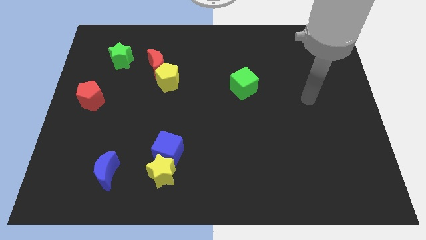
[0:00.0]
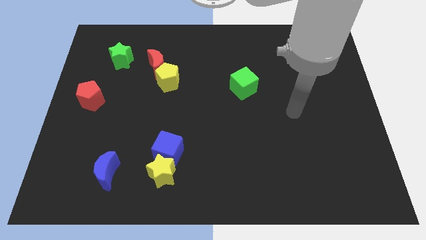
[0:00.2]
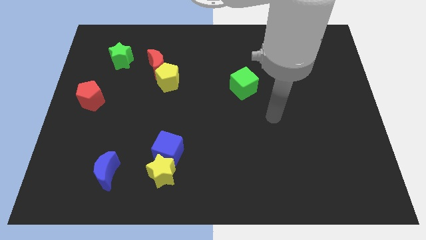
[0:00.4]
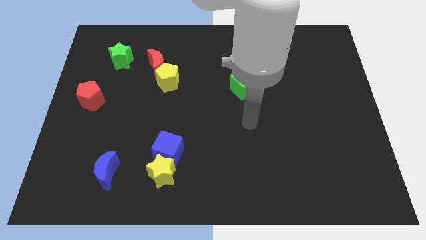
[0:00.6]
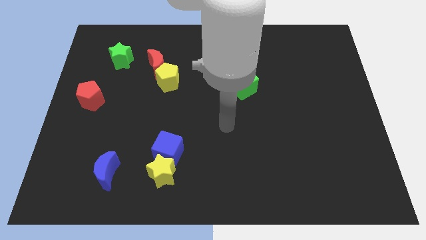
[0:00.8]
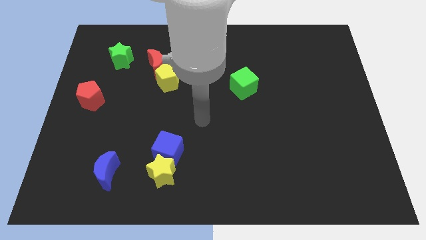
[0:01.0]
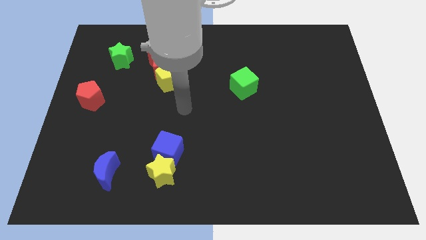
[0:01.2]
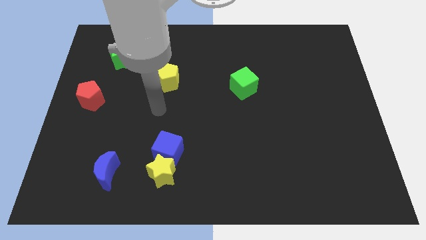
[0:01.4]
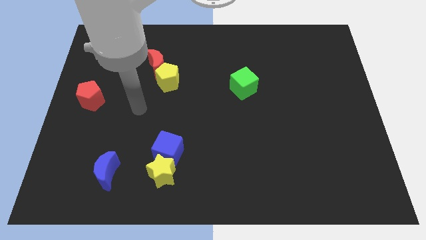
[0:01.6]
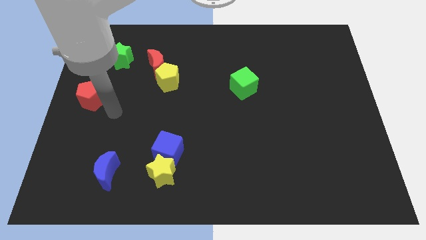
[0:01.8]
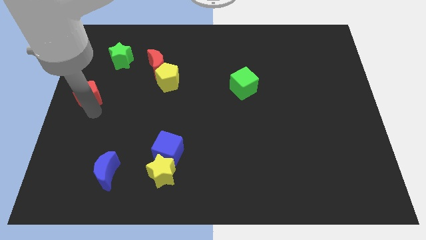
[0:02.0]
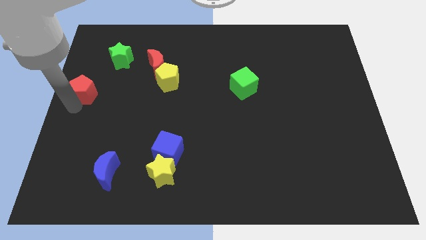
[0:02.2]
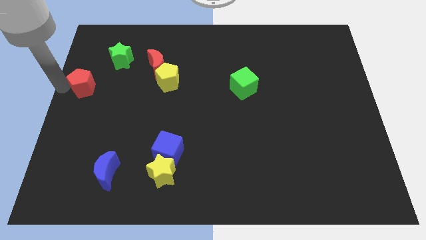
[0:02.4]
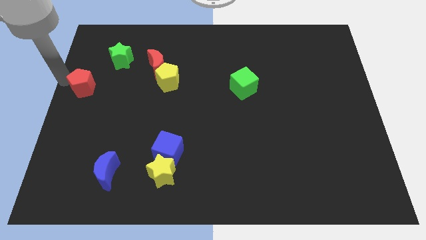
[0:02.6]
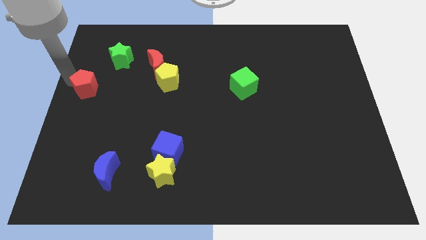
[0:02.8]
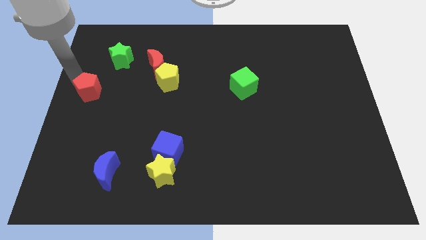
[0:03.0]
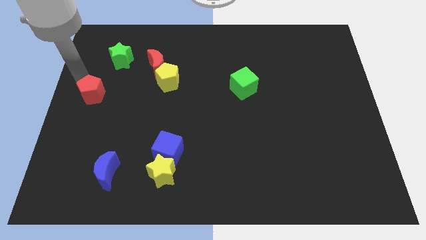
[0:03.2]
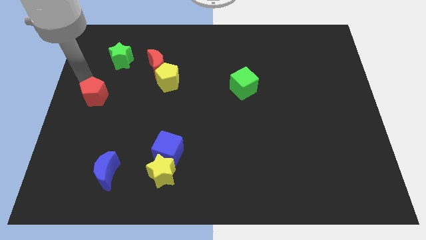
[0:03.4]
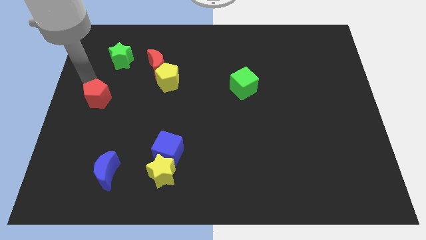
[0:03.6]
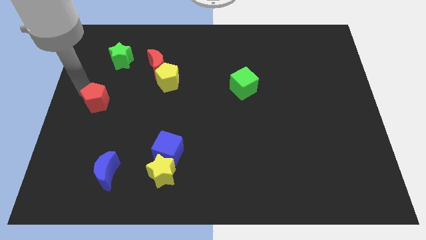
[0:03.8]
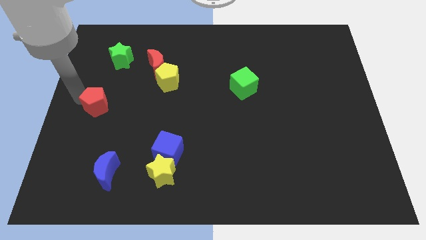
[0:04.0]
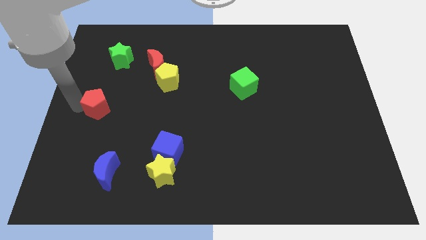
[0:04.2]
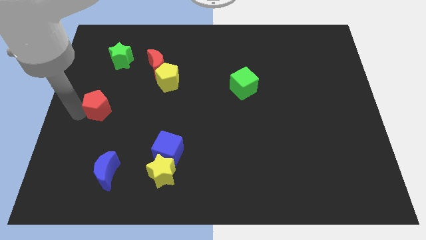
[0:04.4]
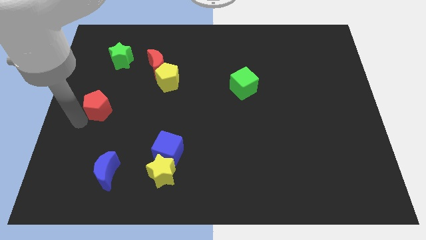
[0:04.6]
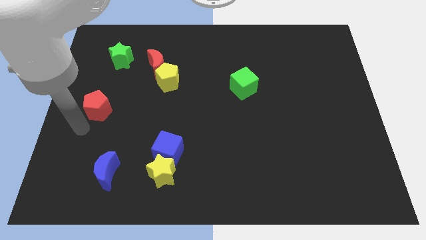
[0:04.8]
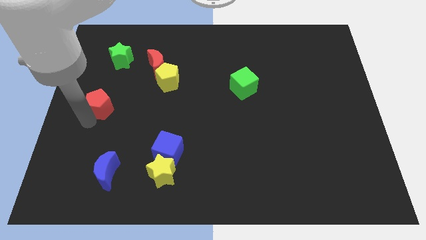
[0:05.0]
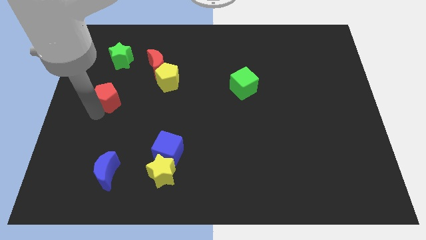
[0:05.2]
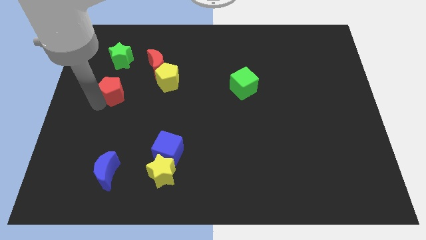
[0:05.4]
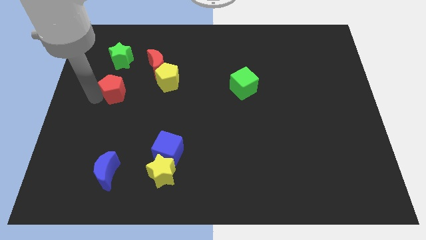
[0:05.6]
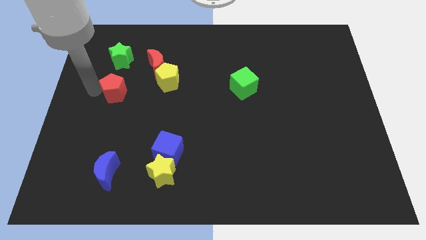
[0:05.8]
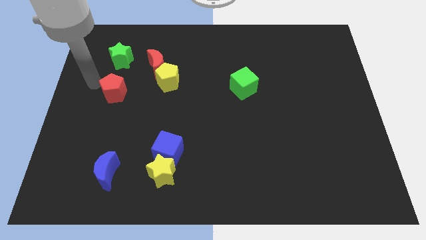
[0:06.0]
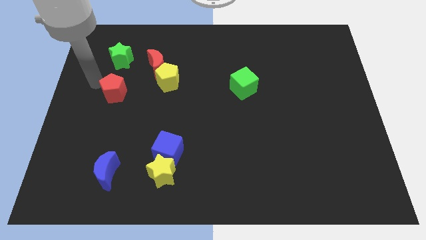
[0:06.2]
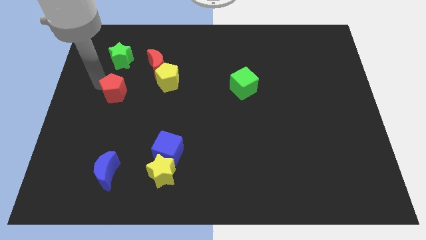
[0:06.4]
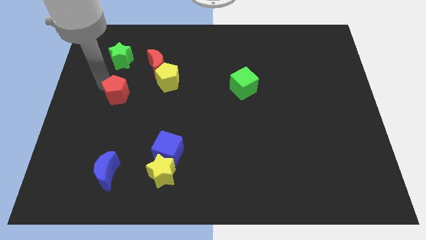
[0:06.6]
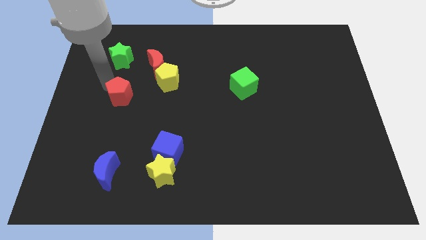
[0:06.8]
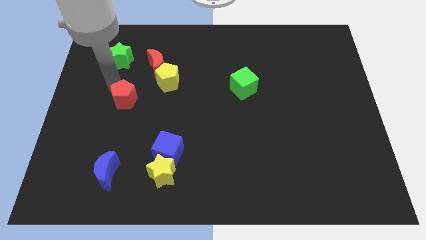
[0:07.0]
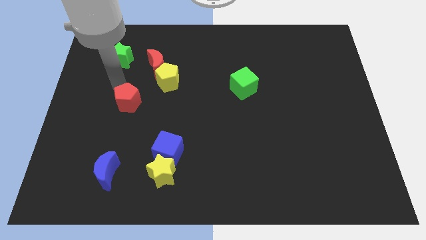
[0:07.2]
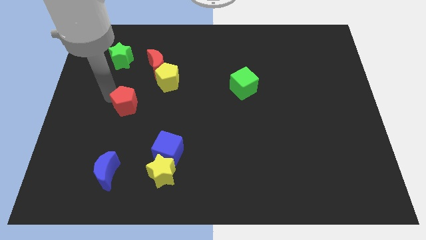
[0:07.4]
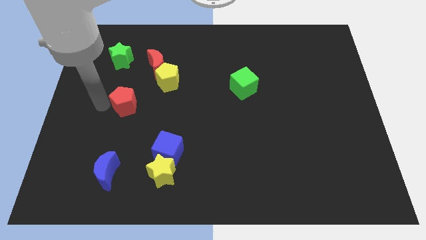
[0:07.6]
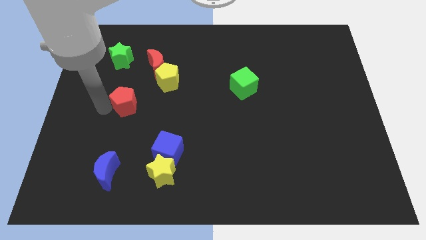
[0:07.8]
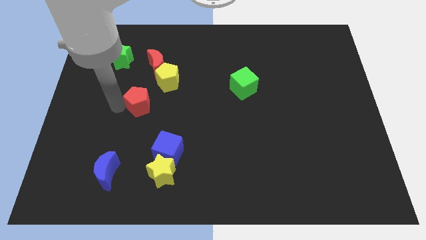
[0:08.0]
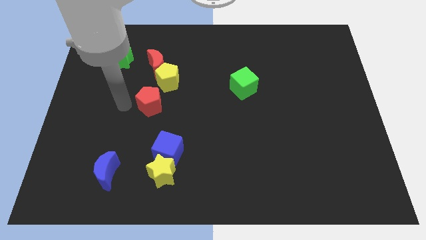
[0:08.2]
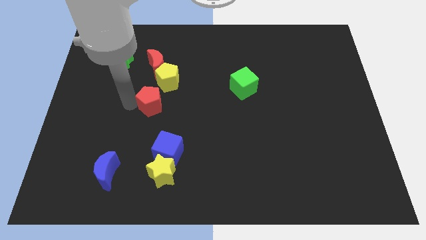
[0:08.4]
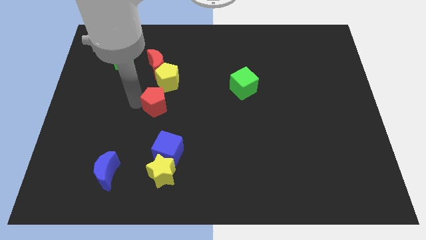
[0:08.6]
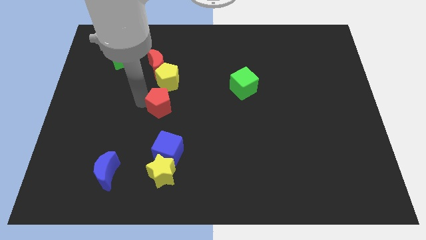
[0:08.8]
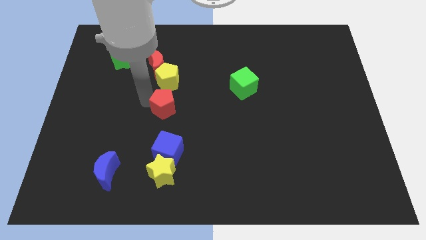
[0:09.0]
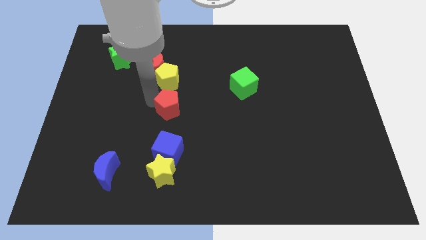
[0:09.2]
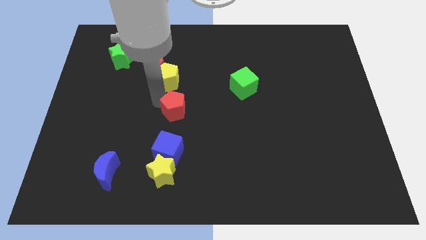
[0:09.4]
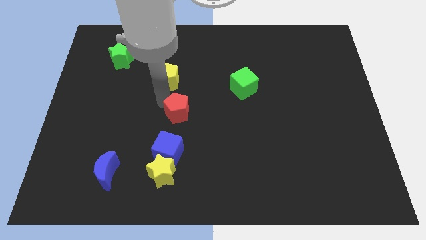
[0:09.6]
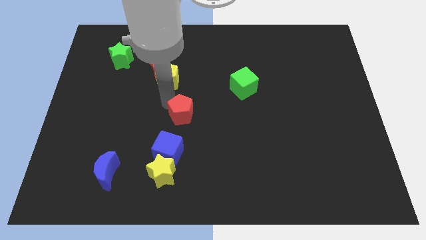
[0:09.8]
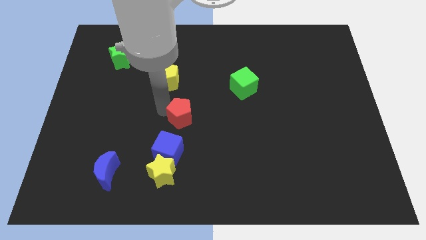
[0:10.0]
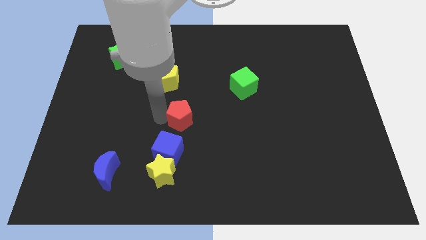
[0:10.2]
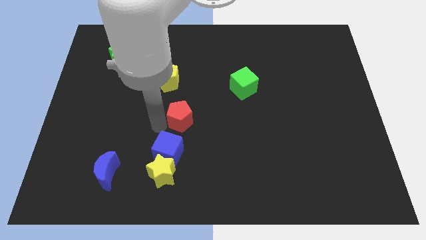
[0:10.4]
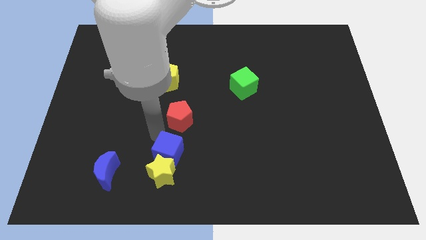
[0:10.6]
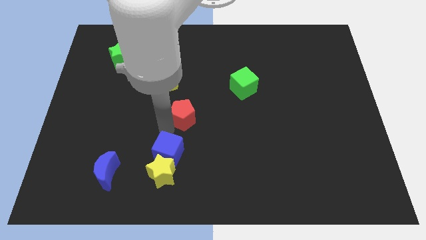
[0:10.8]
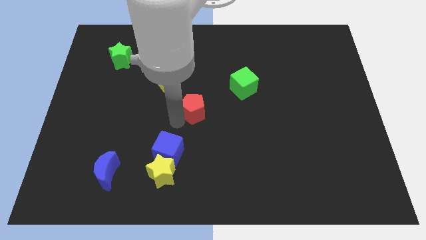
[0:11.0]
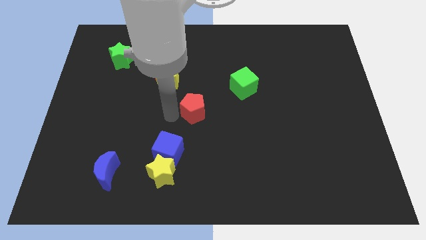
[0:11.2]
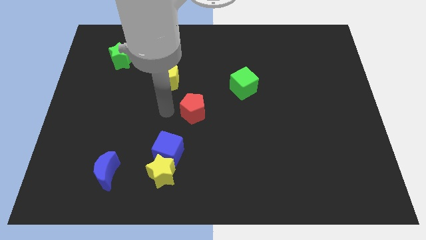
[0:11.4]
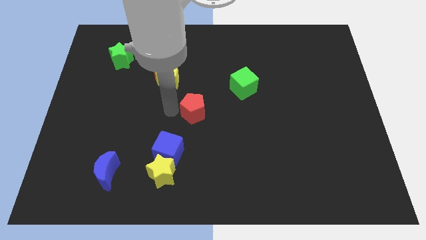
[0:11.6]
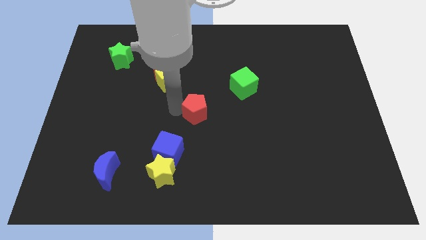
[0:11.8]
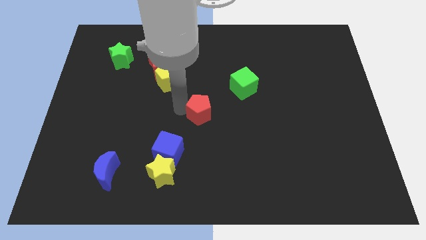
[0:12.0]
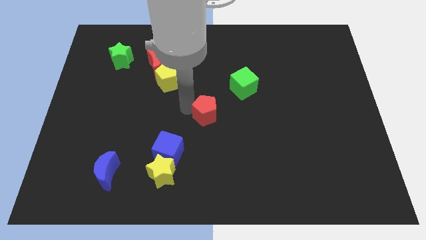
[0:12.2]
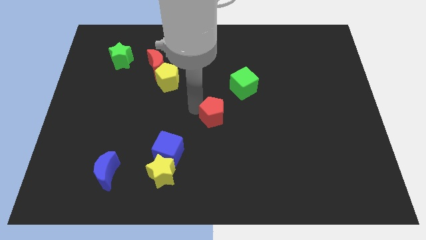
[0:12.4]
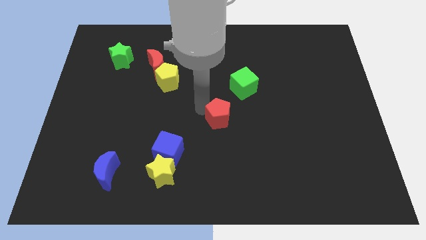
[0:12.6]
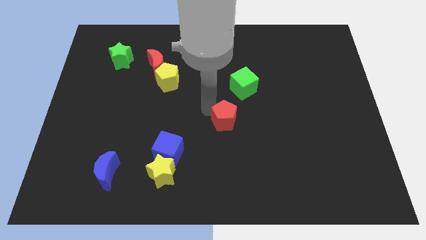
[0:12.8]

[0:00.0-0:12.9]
put the red pentagon to the bottom of the green cube

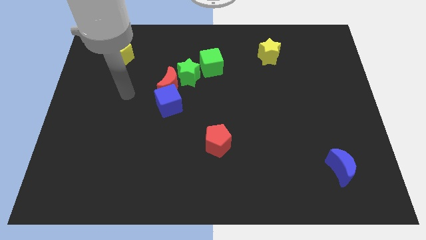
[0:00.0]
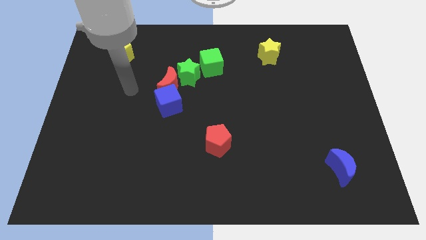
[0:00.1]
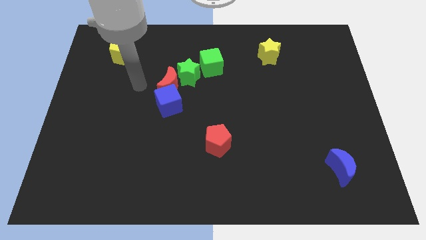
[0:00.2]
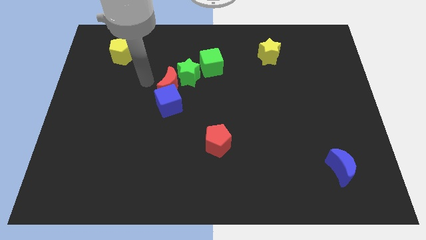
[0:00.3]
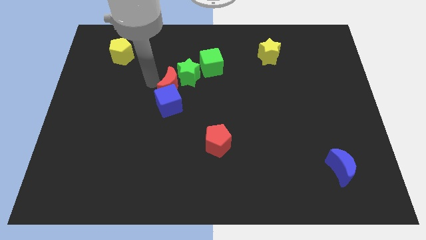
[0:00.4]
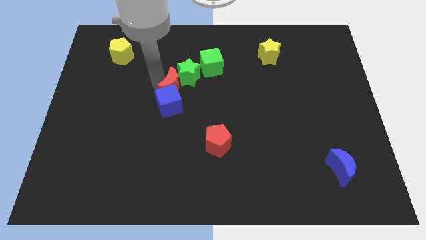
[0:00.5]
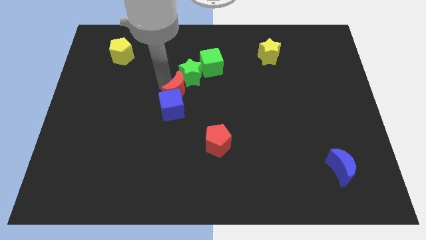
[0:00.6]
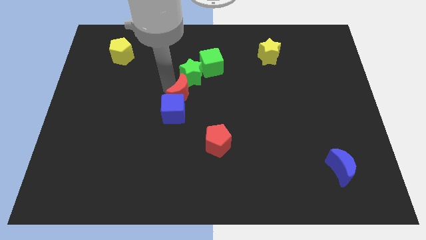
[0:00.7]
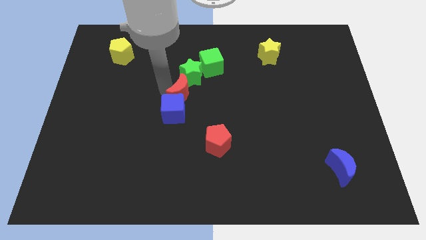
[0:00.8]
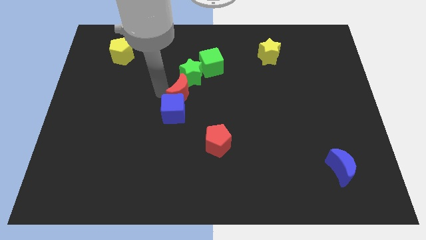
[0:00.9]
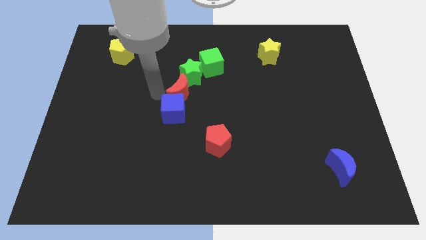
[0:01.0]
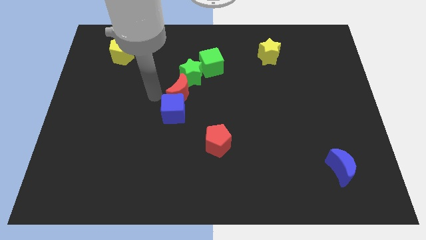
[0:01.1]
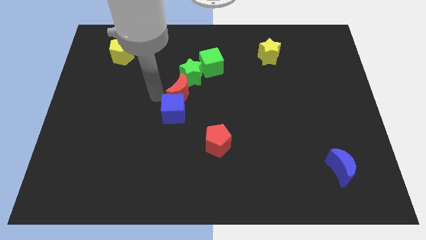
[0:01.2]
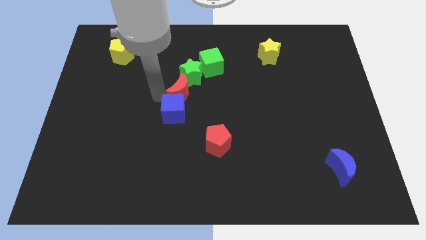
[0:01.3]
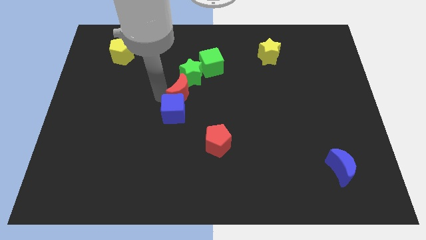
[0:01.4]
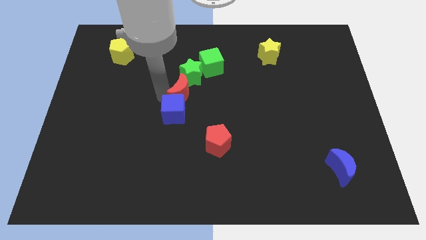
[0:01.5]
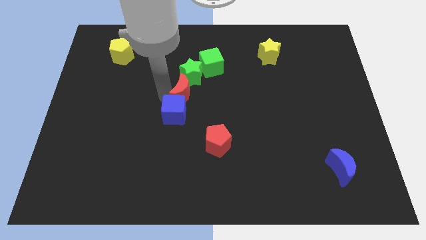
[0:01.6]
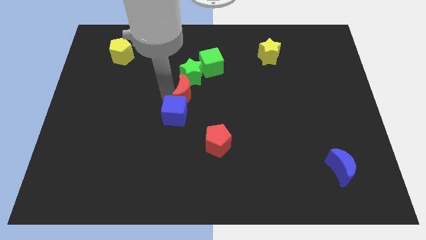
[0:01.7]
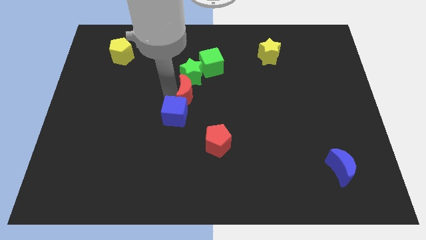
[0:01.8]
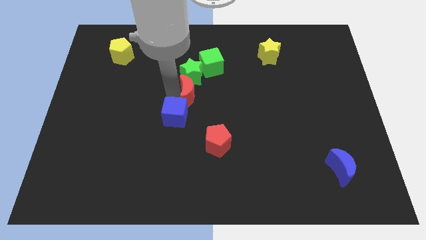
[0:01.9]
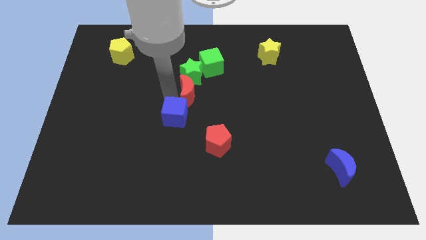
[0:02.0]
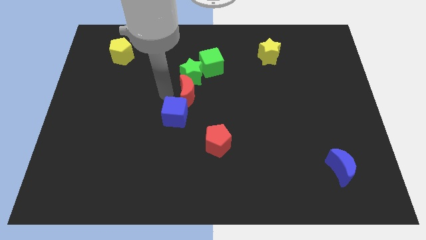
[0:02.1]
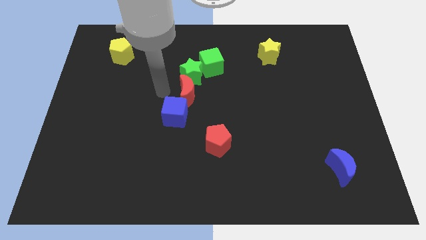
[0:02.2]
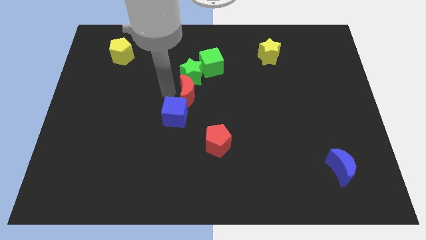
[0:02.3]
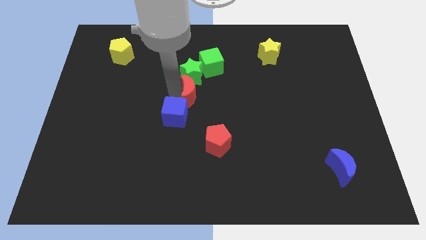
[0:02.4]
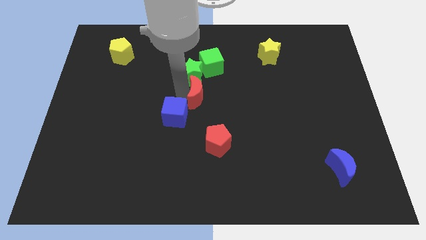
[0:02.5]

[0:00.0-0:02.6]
slide the red moon to the bottom side of the green cube
